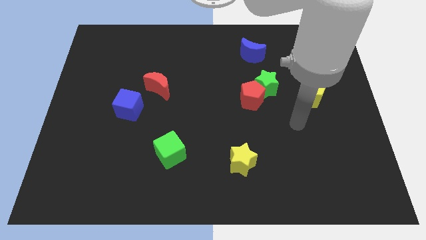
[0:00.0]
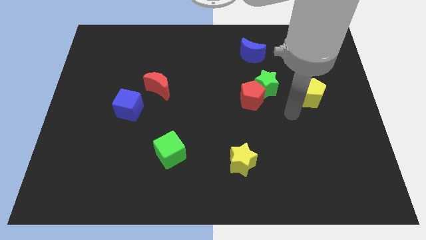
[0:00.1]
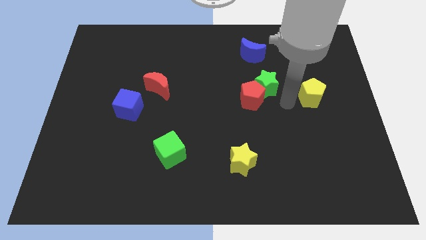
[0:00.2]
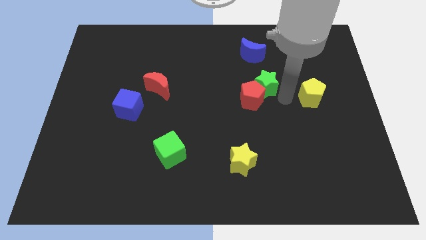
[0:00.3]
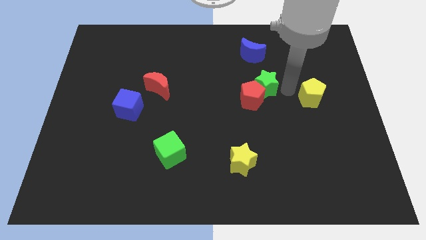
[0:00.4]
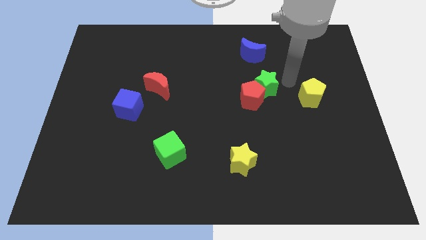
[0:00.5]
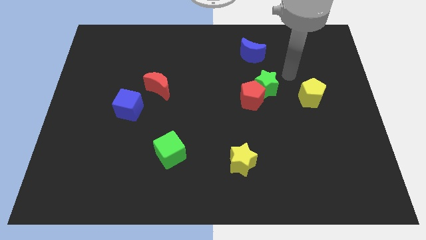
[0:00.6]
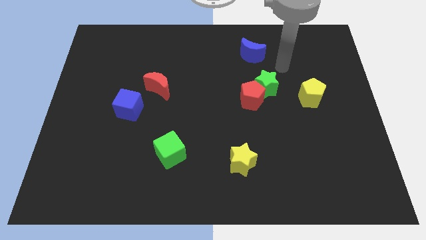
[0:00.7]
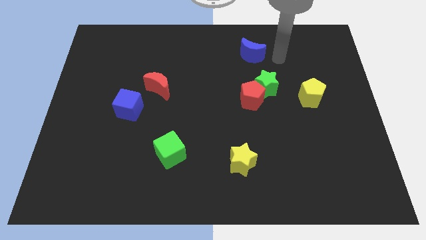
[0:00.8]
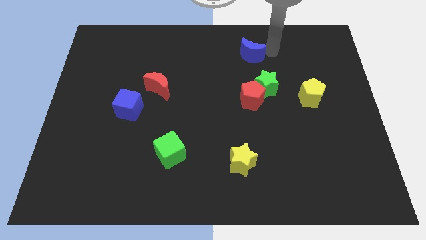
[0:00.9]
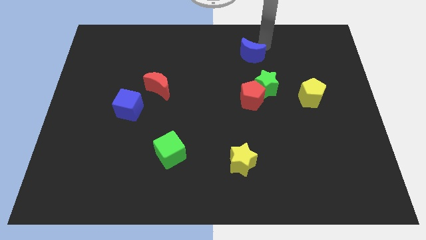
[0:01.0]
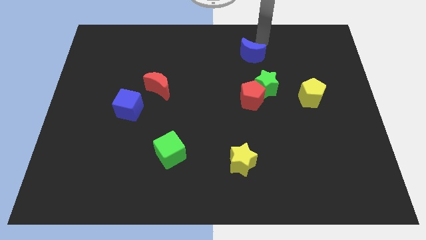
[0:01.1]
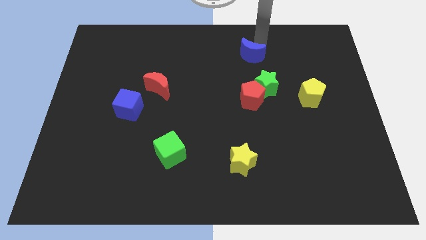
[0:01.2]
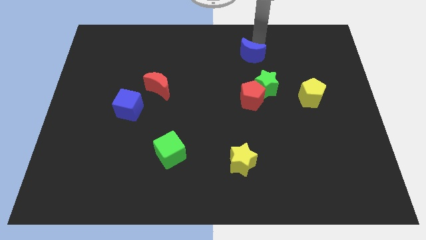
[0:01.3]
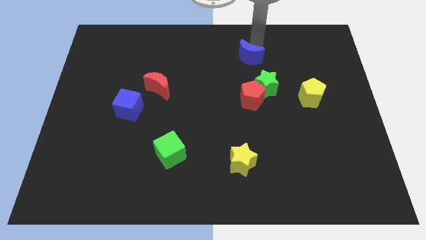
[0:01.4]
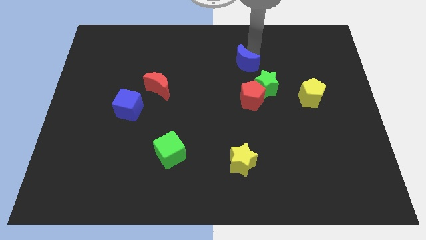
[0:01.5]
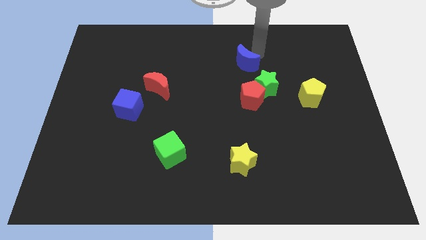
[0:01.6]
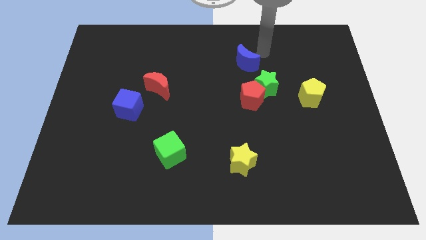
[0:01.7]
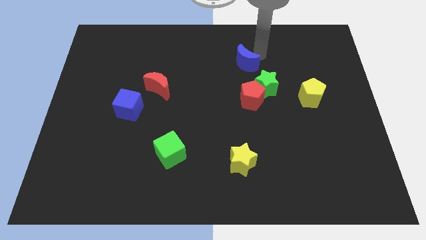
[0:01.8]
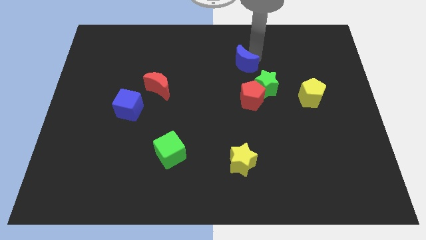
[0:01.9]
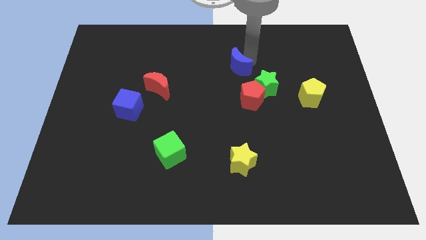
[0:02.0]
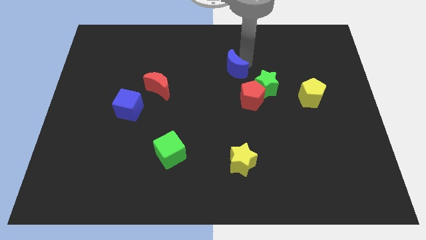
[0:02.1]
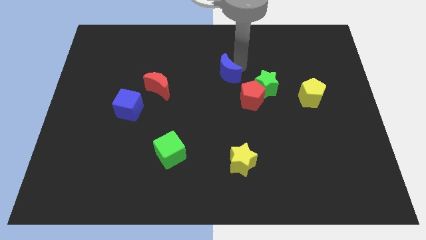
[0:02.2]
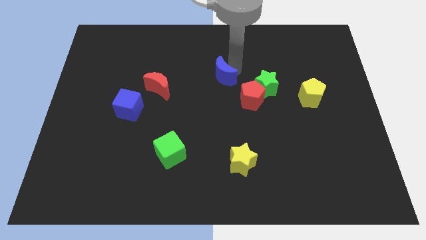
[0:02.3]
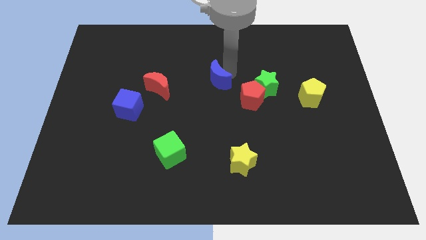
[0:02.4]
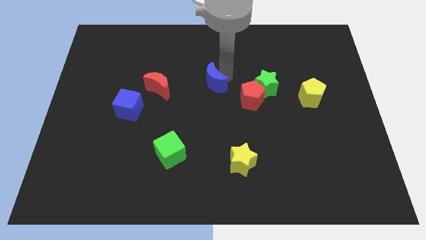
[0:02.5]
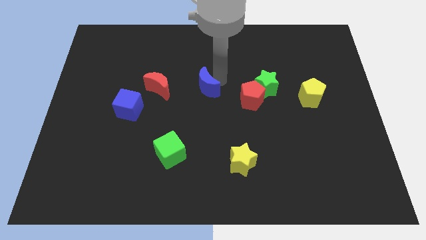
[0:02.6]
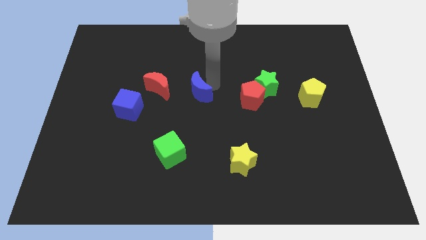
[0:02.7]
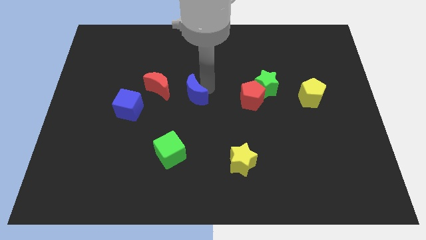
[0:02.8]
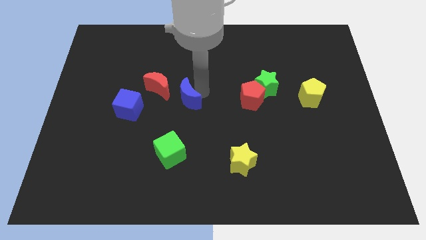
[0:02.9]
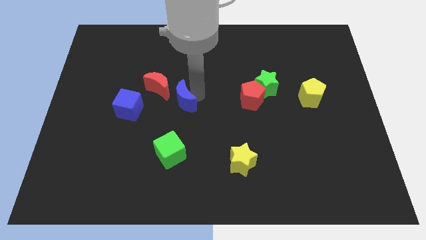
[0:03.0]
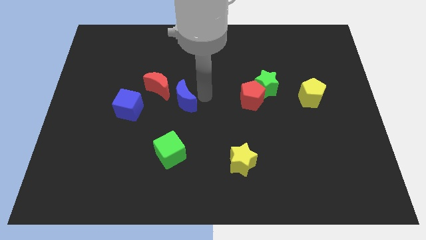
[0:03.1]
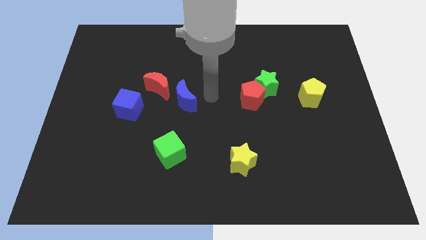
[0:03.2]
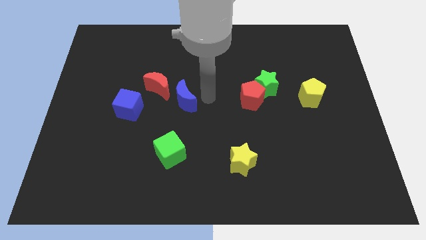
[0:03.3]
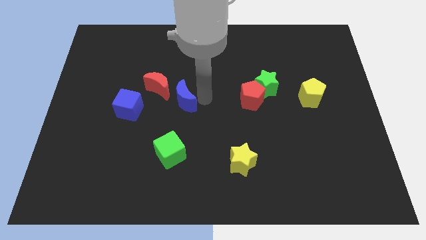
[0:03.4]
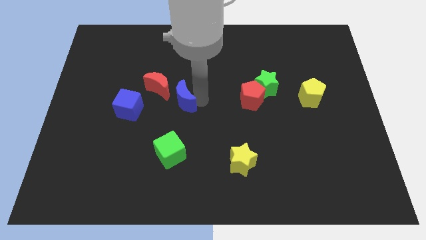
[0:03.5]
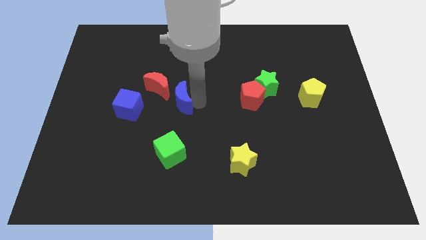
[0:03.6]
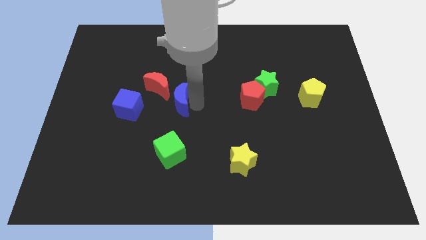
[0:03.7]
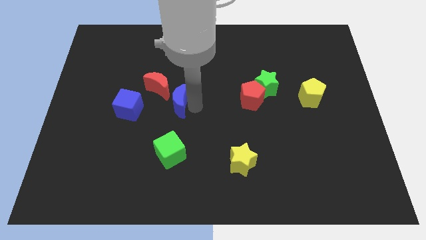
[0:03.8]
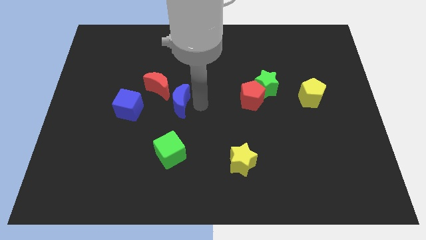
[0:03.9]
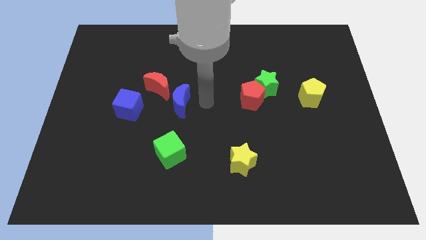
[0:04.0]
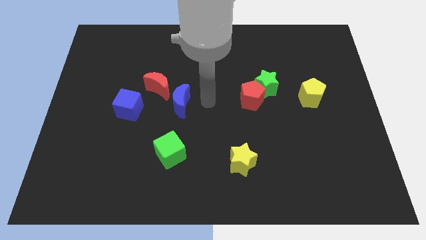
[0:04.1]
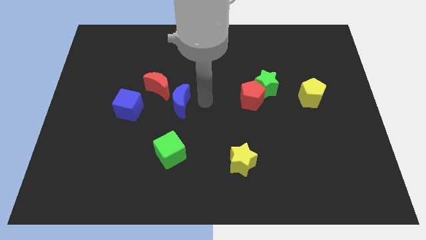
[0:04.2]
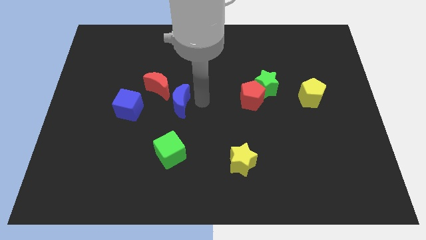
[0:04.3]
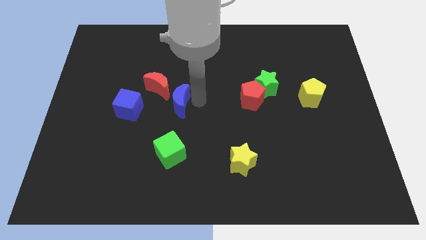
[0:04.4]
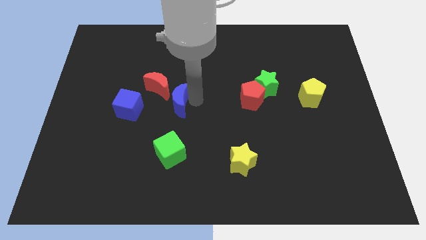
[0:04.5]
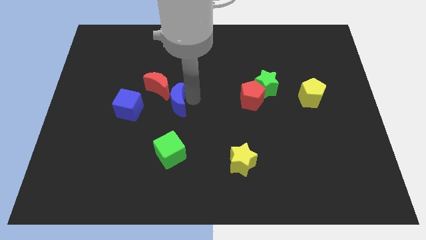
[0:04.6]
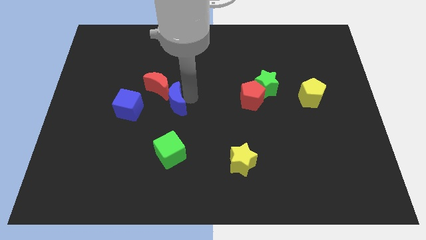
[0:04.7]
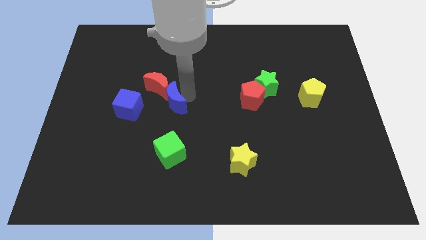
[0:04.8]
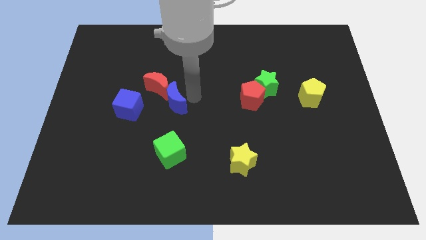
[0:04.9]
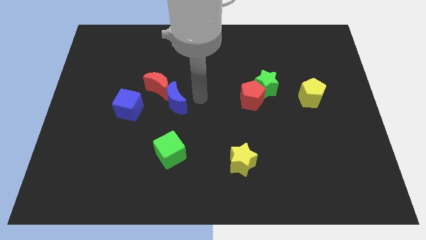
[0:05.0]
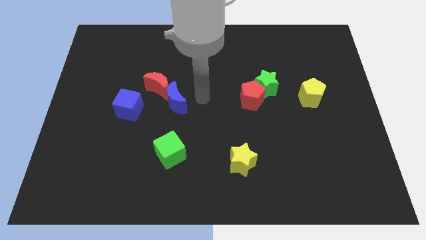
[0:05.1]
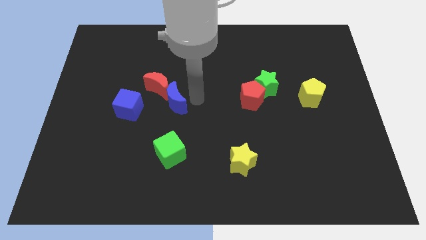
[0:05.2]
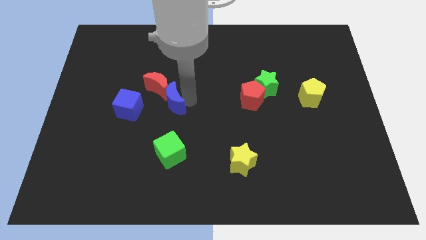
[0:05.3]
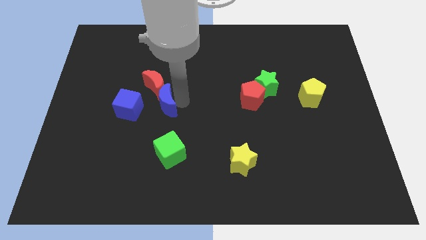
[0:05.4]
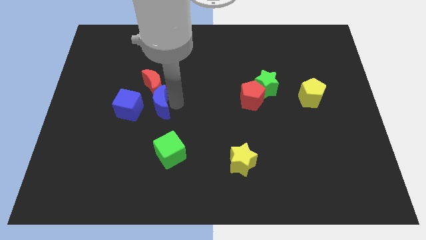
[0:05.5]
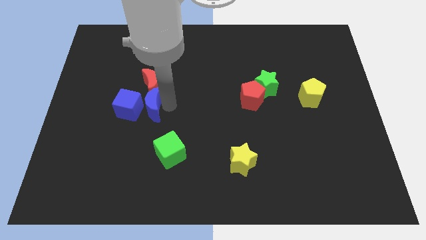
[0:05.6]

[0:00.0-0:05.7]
push the blue moon next to the blue cube

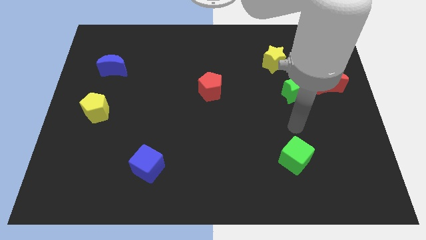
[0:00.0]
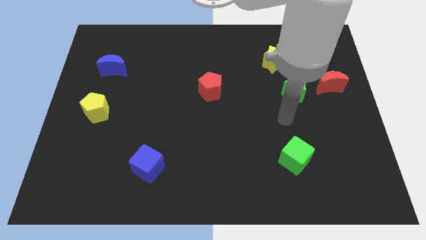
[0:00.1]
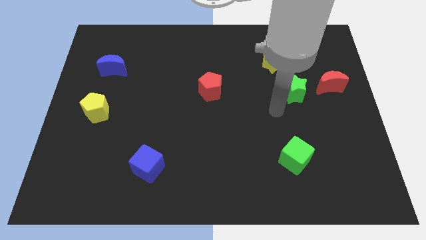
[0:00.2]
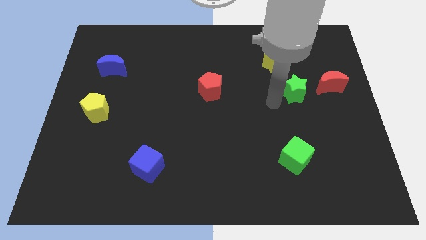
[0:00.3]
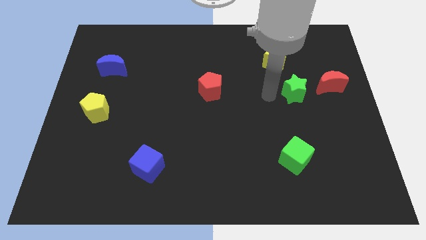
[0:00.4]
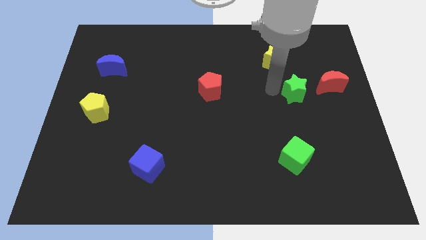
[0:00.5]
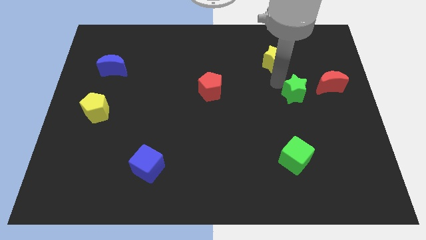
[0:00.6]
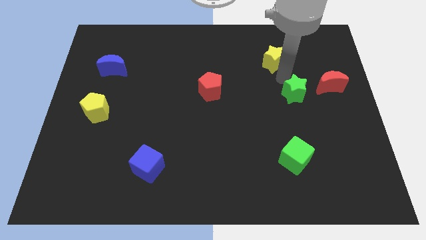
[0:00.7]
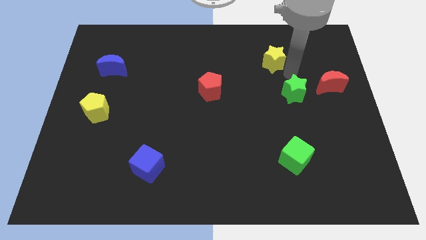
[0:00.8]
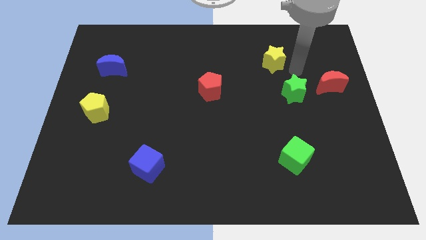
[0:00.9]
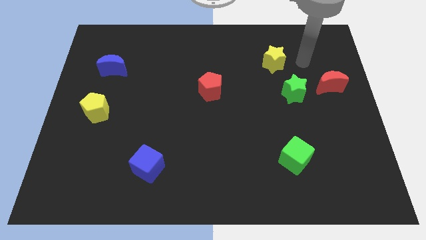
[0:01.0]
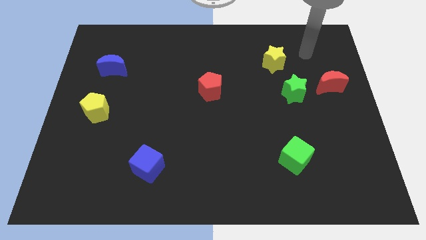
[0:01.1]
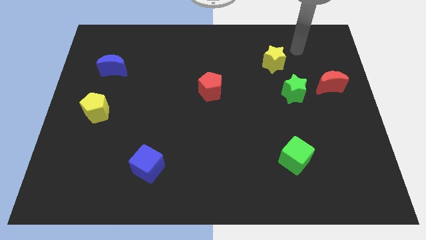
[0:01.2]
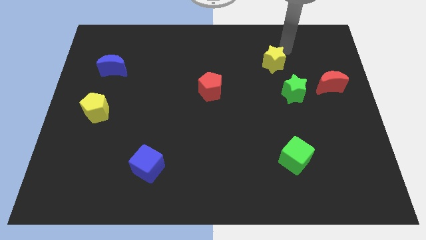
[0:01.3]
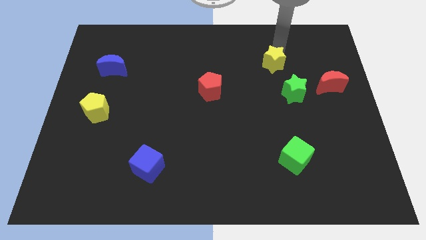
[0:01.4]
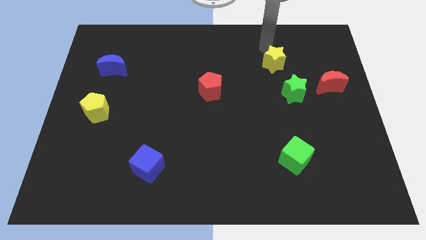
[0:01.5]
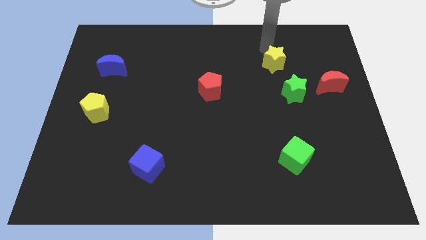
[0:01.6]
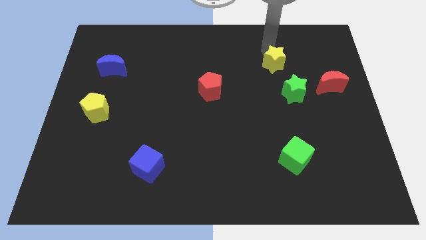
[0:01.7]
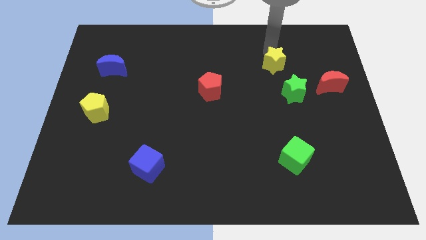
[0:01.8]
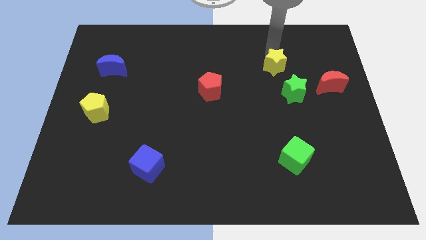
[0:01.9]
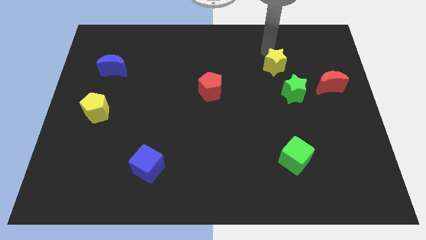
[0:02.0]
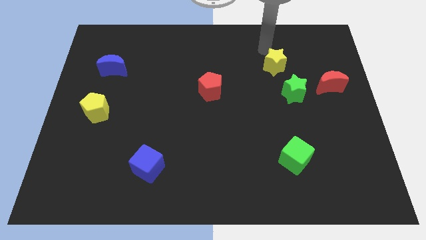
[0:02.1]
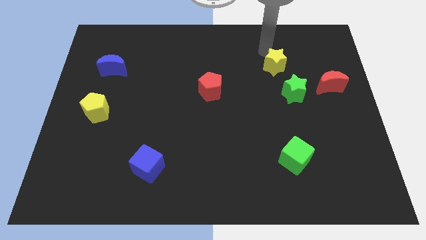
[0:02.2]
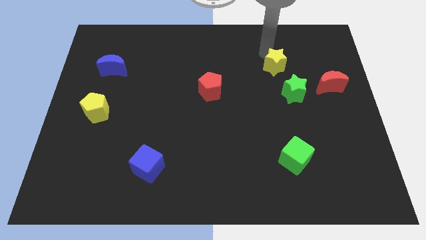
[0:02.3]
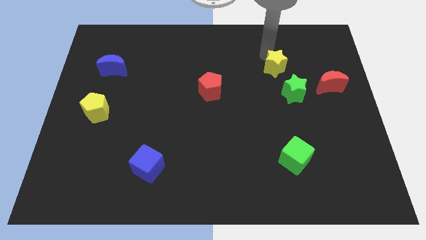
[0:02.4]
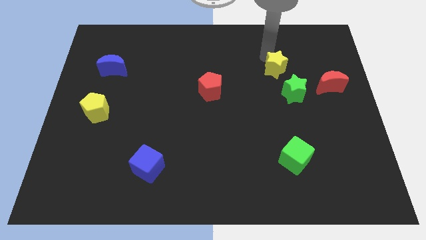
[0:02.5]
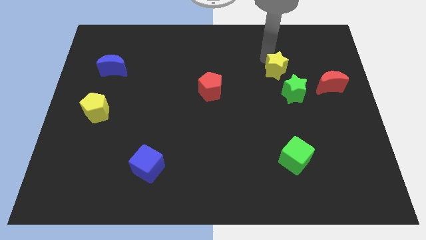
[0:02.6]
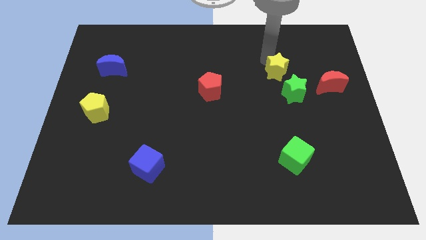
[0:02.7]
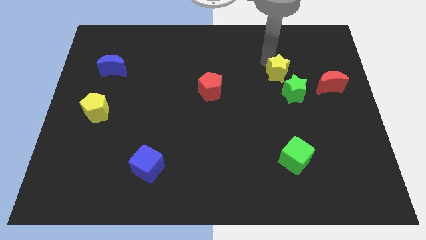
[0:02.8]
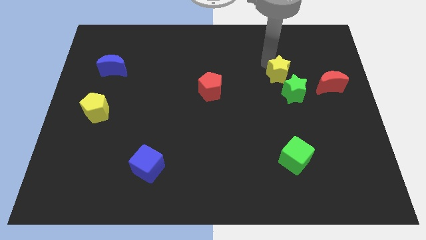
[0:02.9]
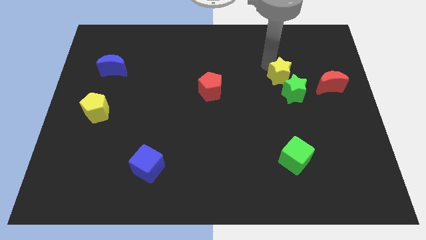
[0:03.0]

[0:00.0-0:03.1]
slide the yellow star next to the green star
